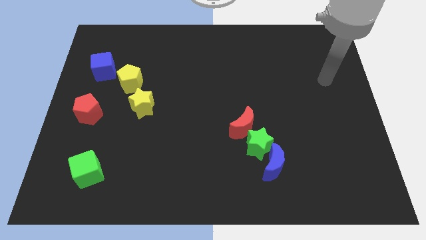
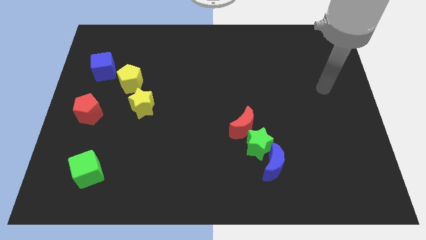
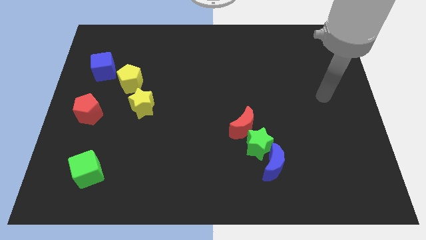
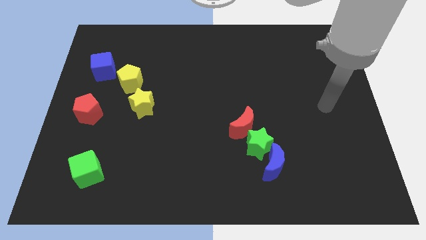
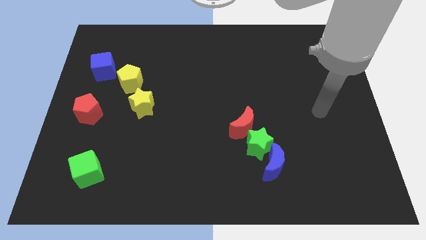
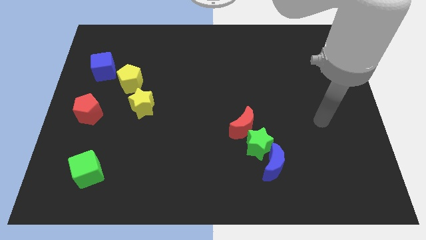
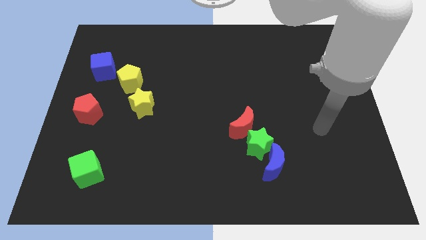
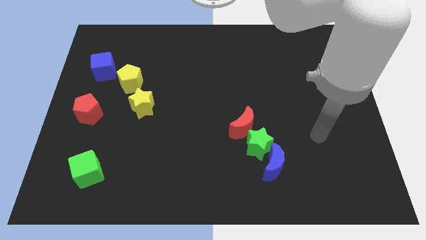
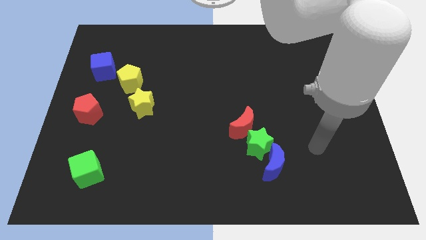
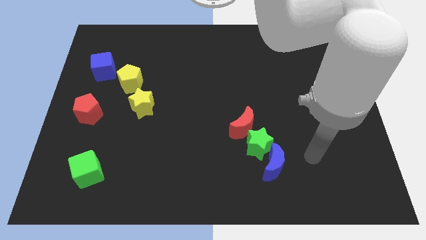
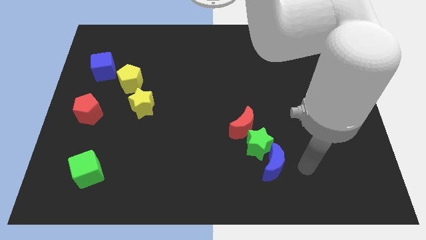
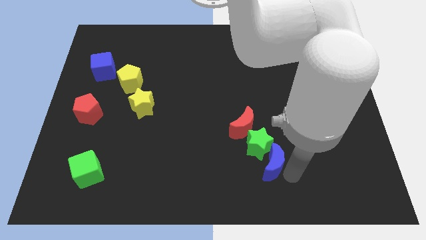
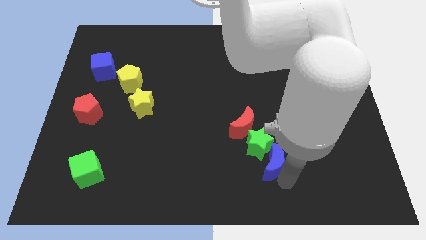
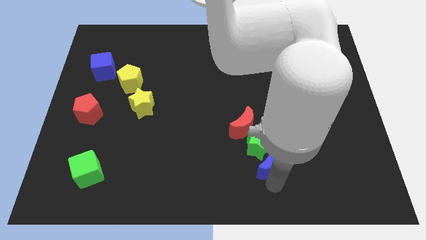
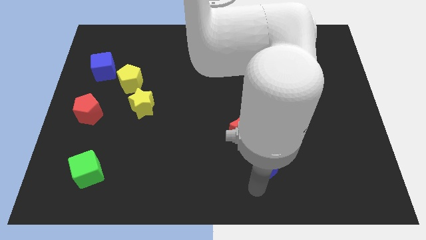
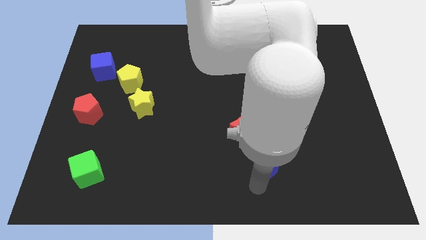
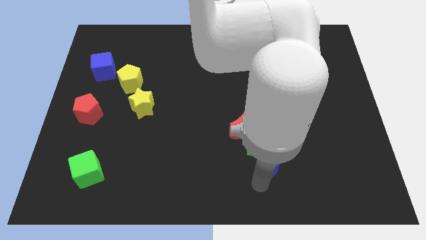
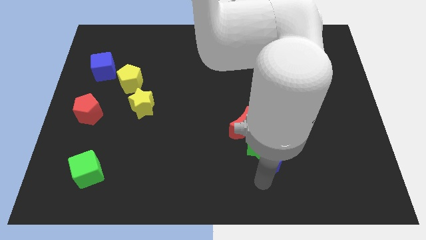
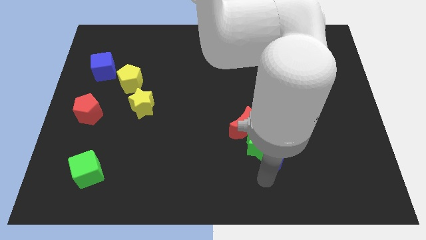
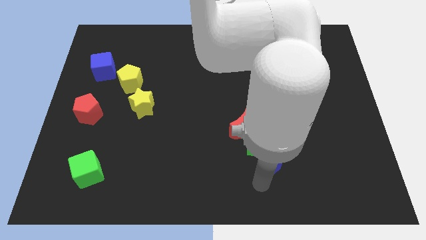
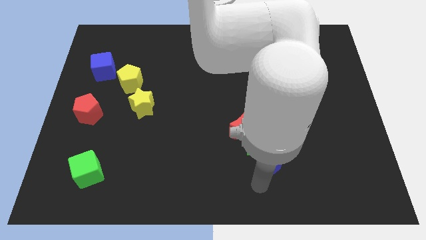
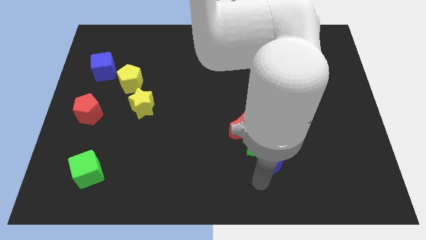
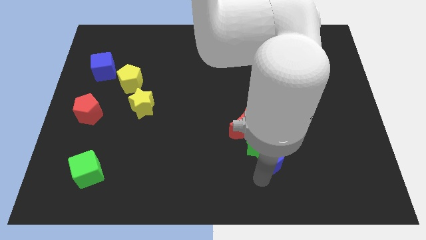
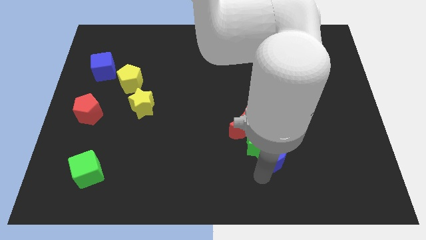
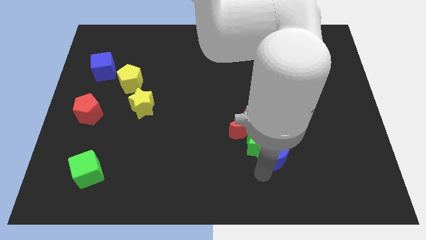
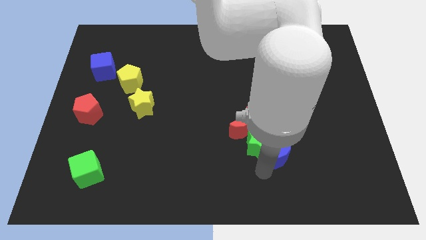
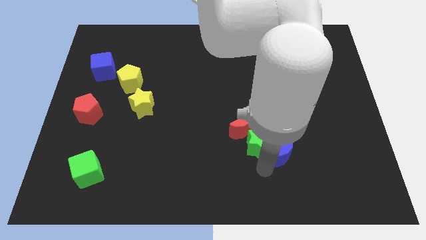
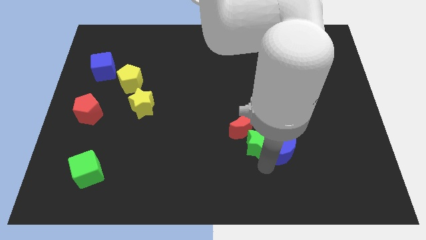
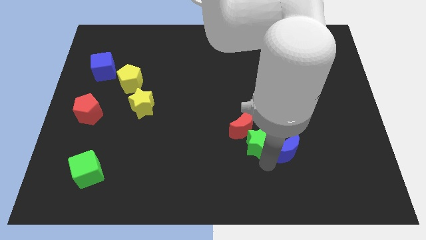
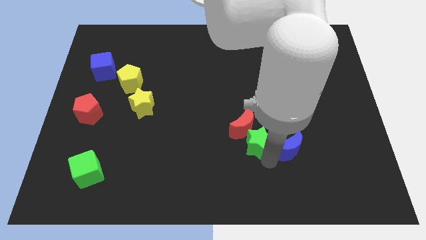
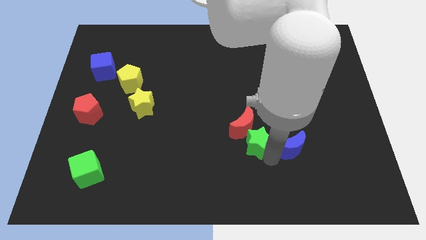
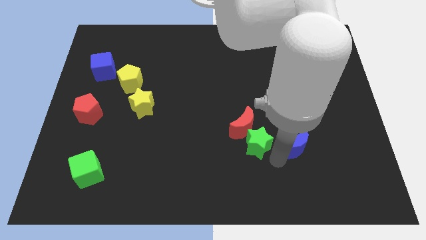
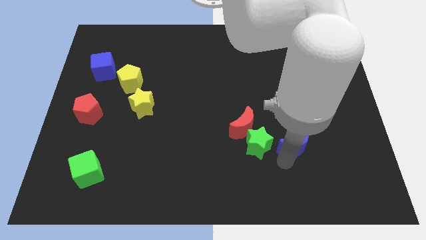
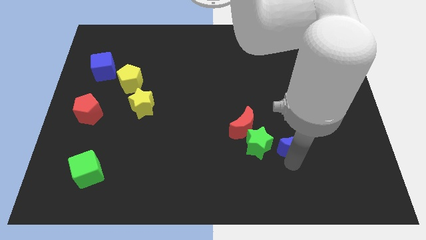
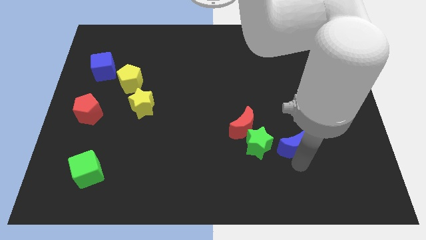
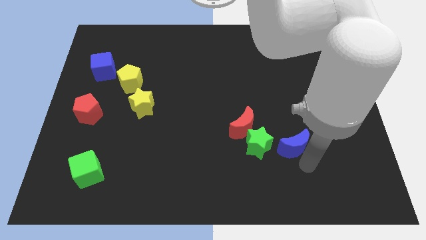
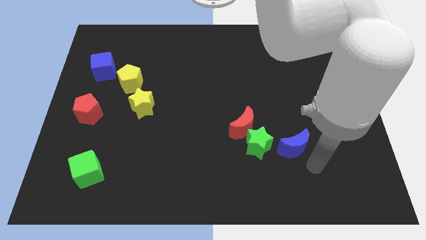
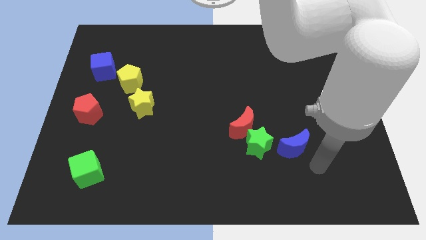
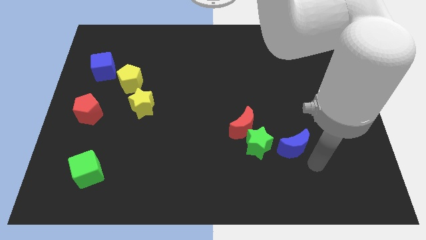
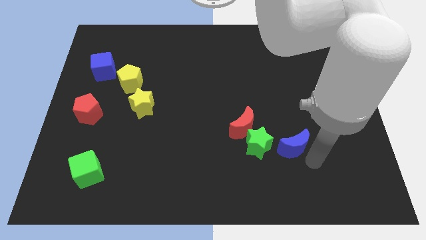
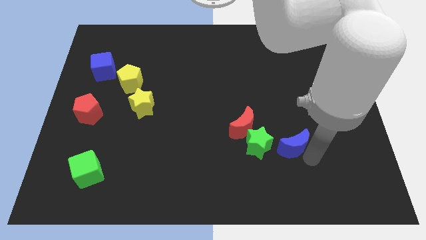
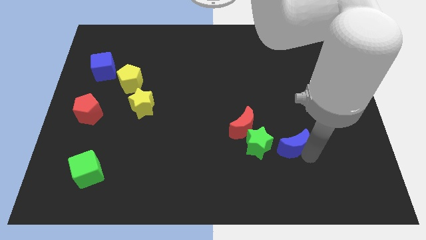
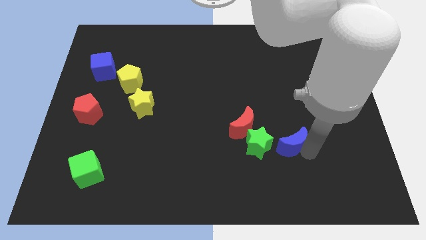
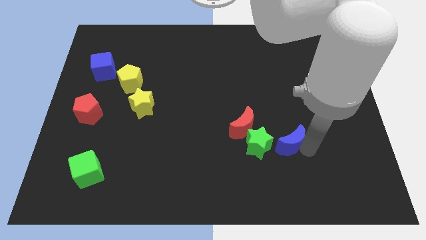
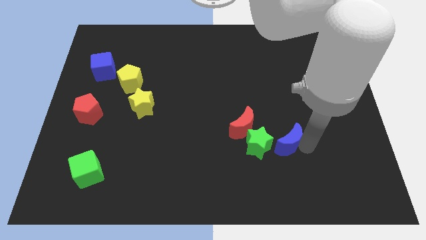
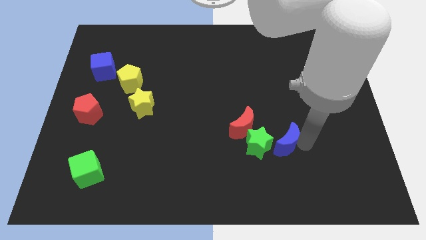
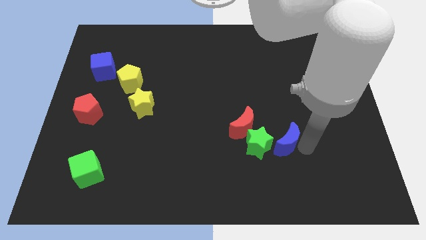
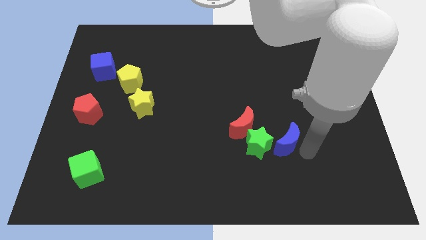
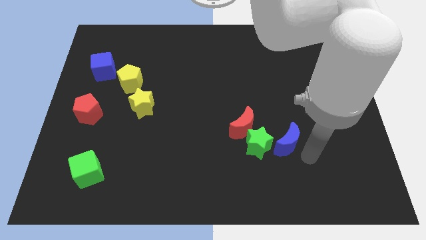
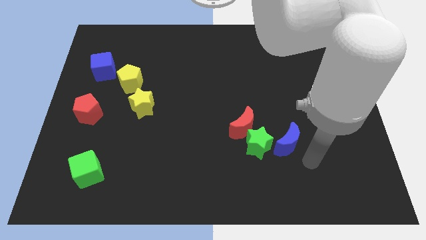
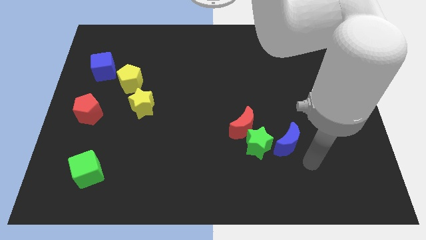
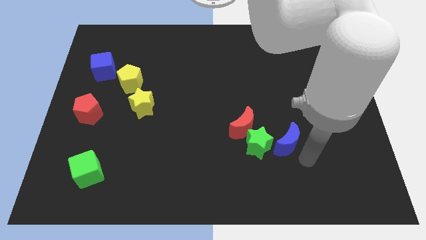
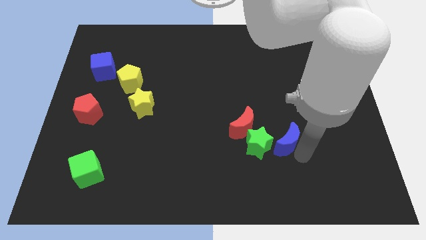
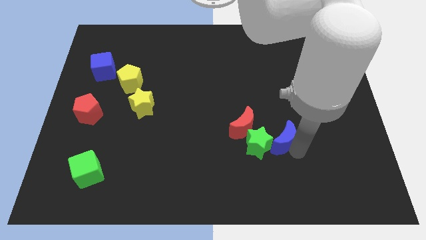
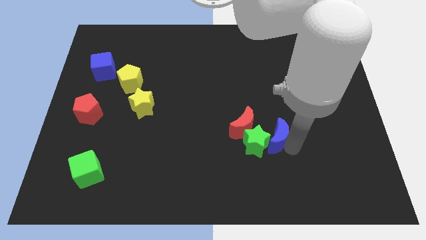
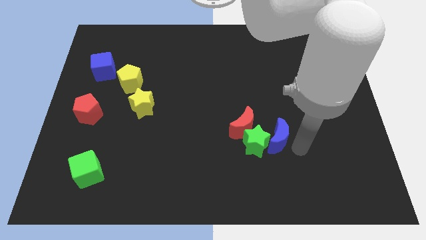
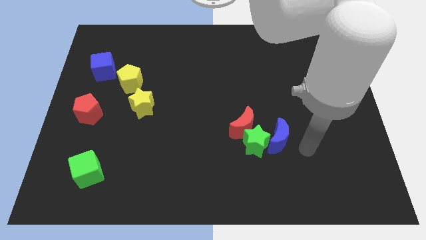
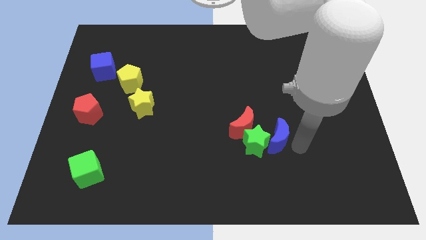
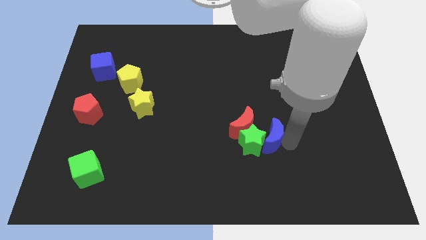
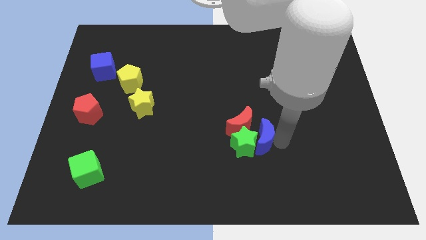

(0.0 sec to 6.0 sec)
push the blue moon to the red moon

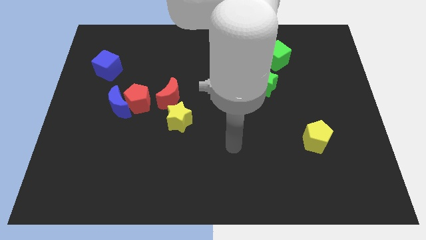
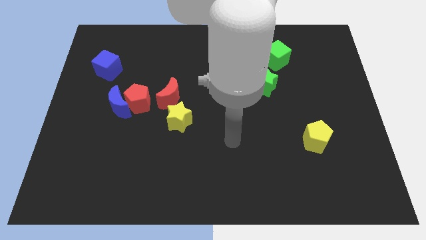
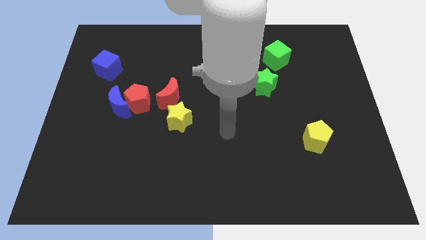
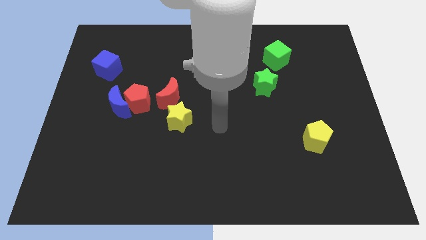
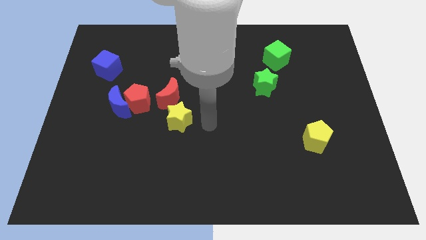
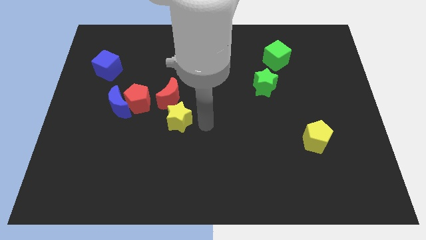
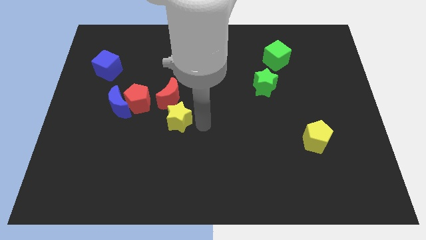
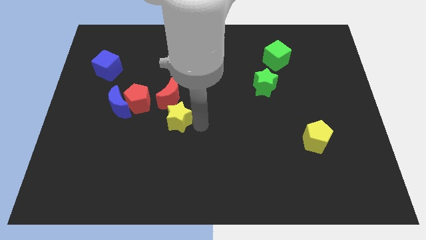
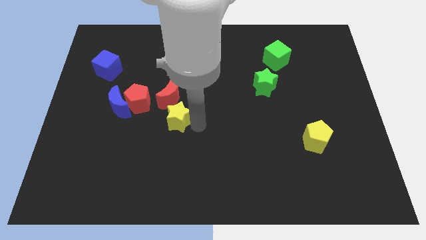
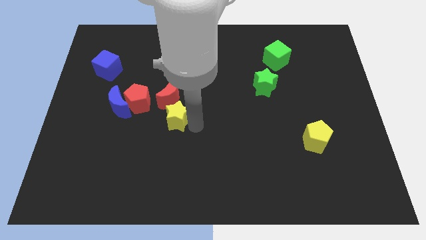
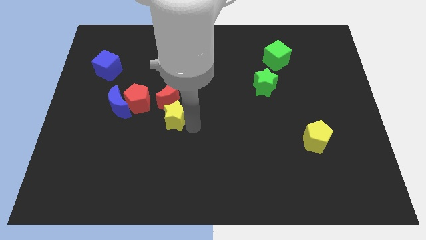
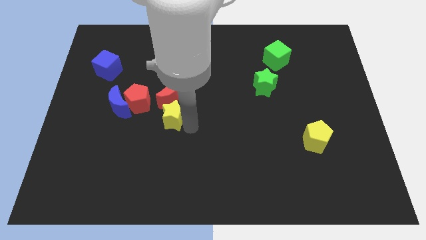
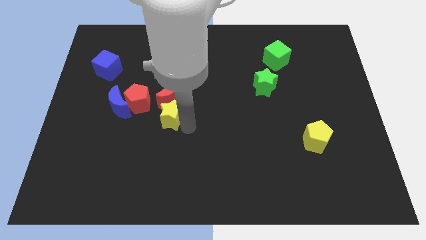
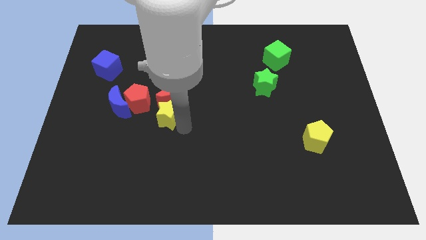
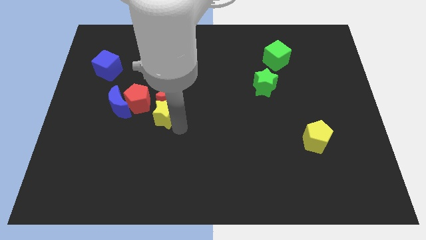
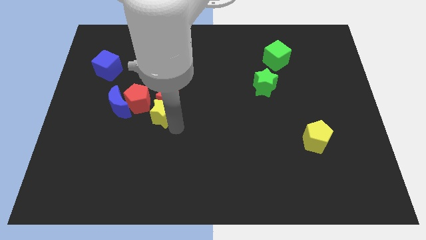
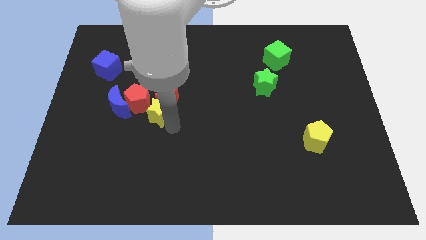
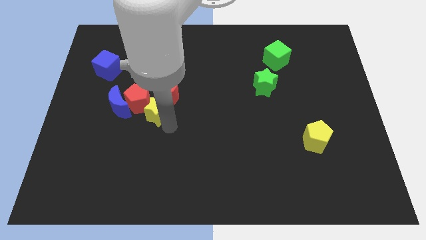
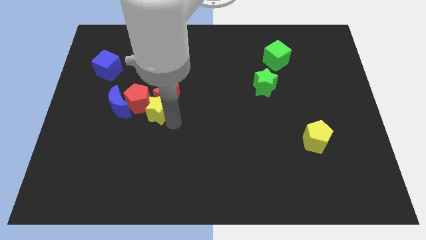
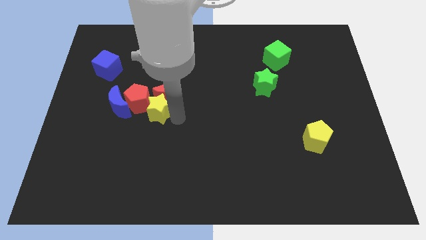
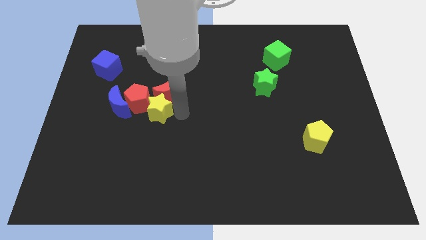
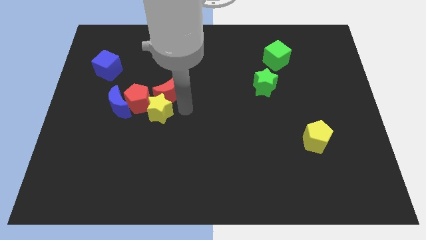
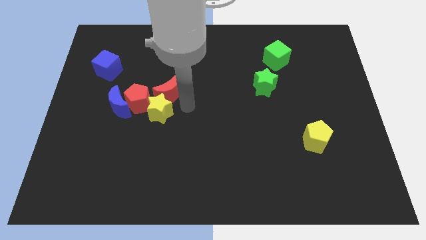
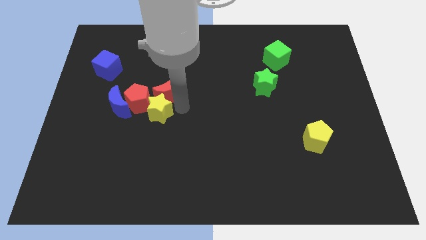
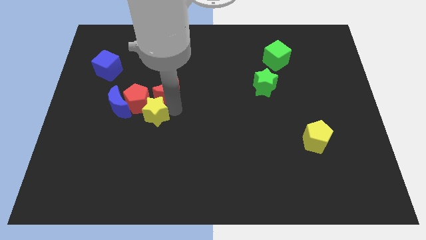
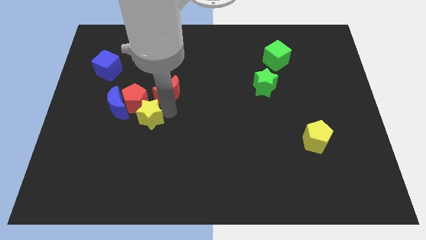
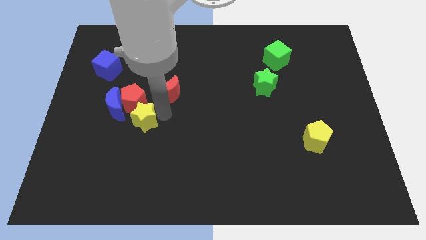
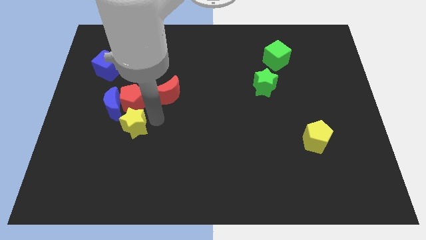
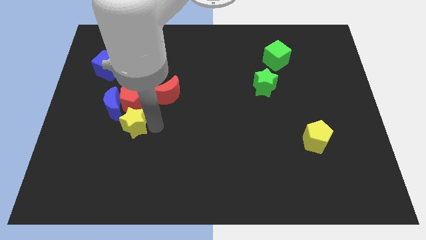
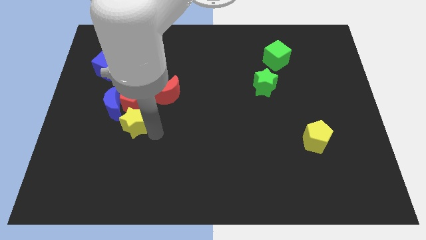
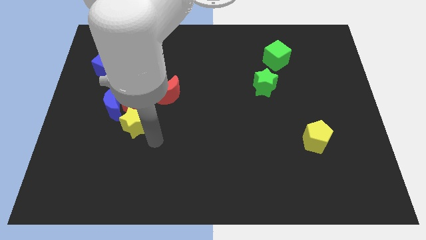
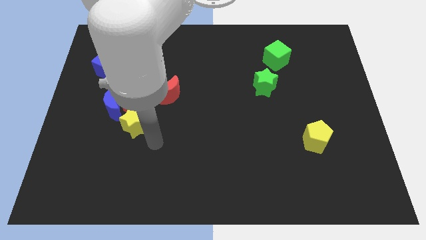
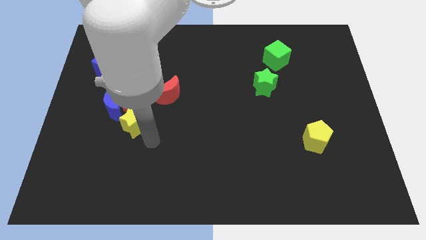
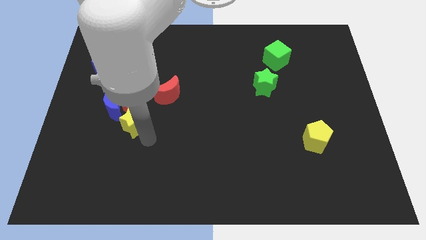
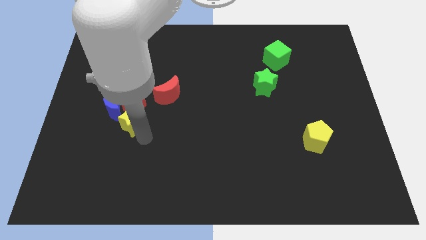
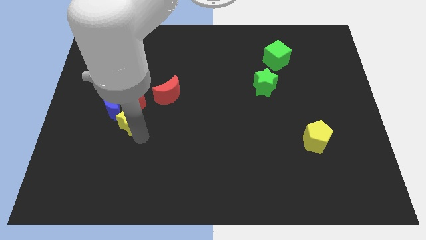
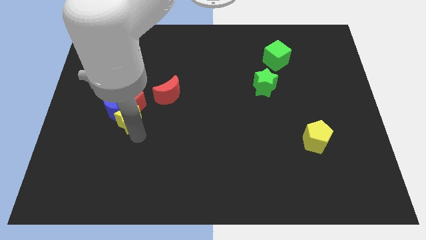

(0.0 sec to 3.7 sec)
push the yellow star to the blue moon
